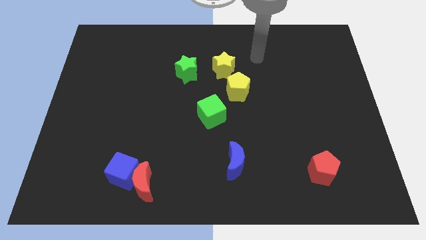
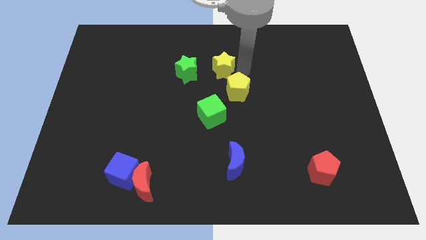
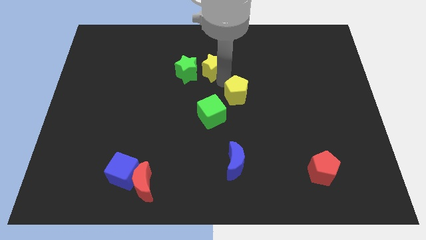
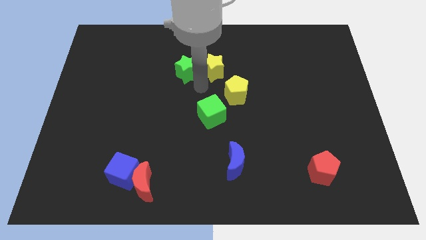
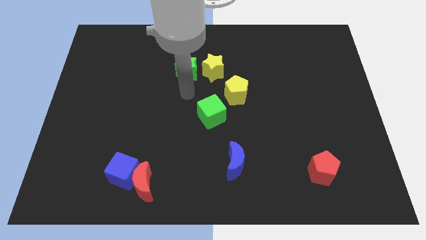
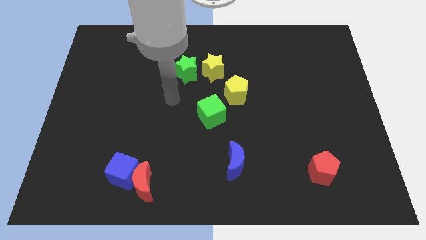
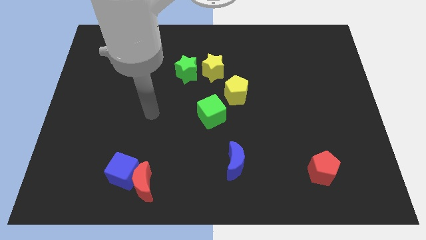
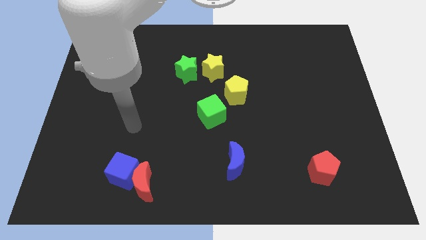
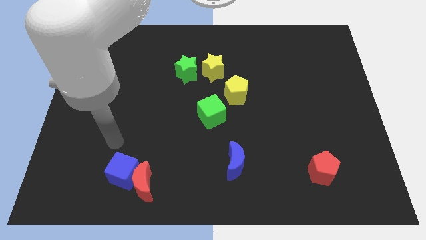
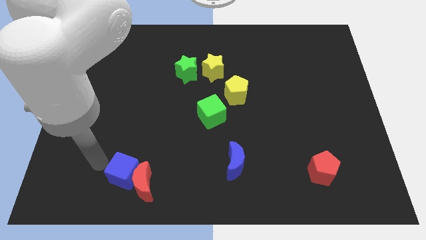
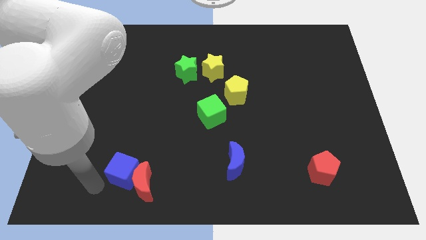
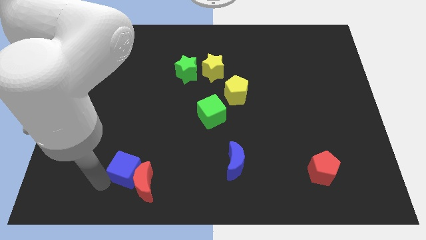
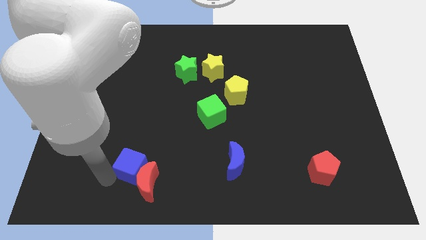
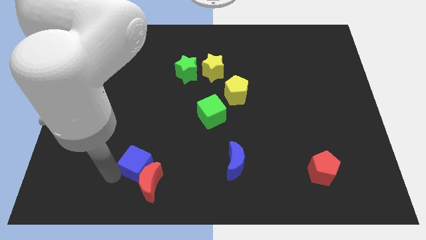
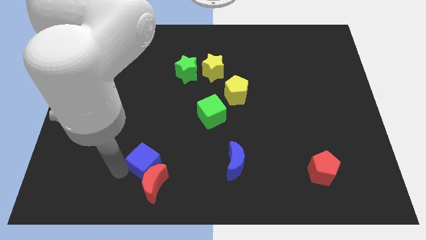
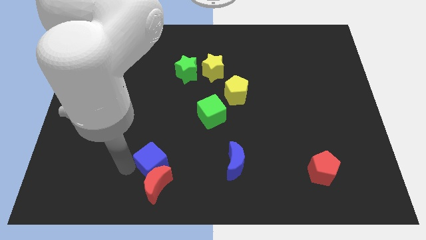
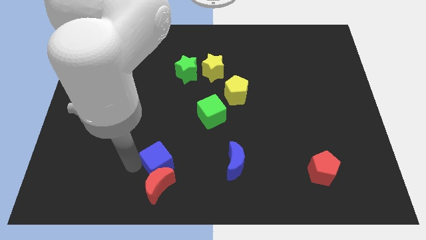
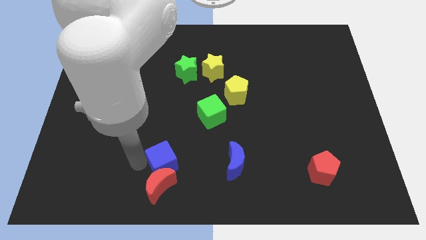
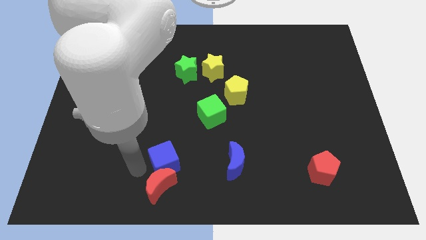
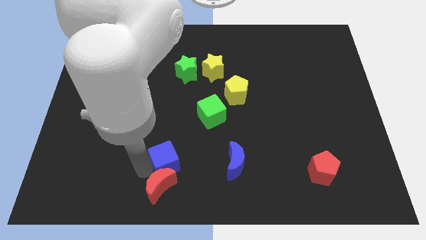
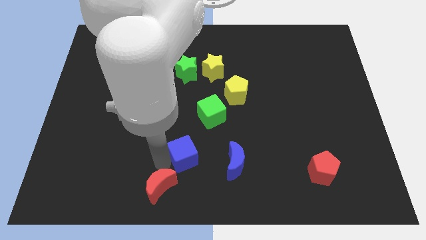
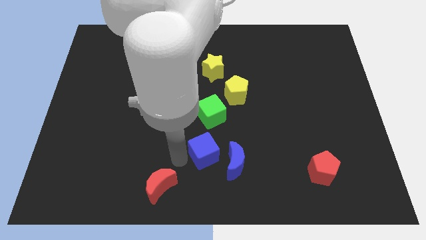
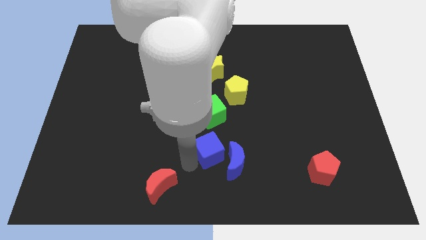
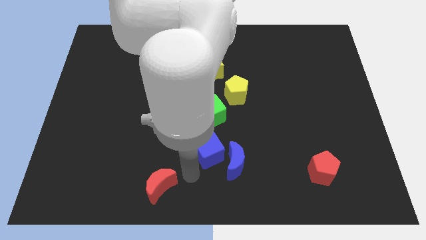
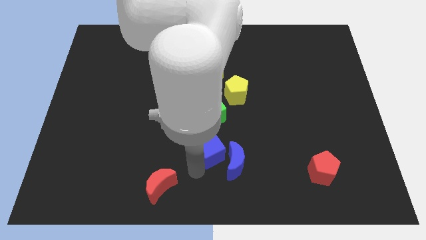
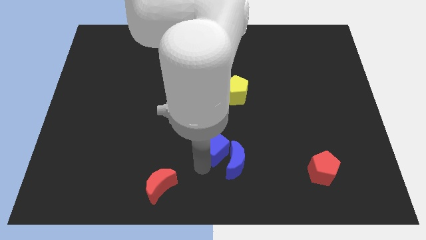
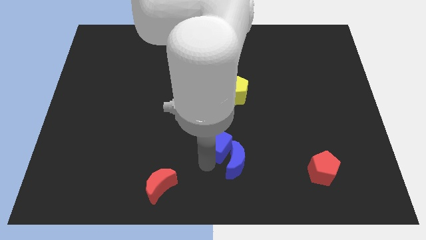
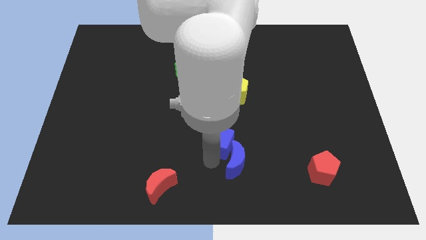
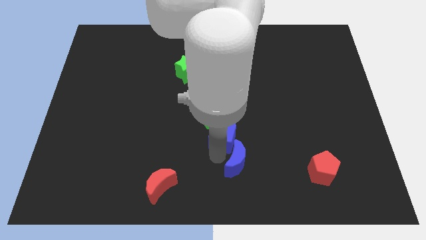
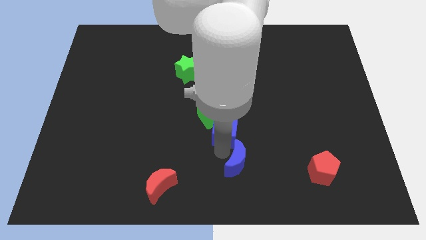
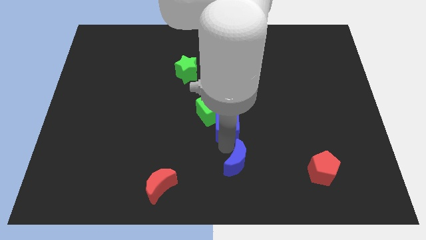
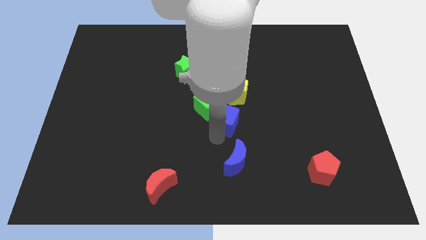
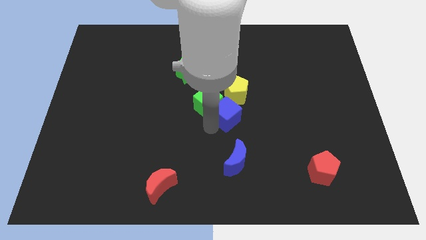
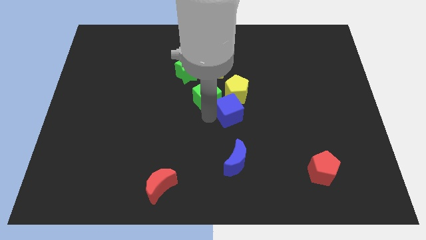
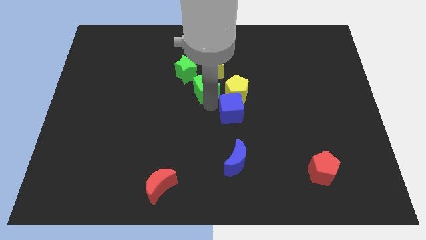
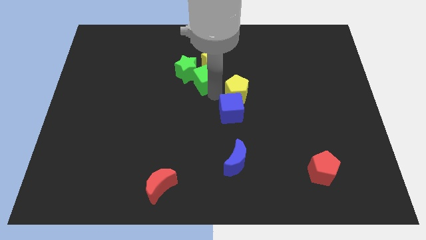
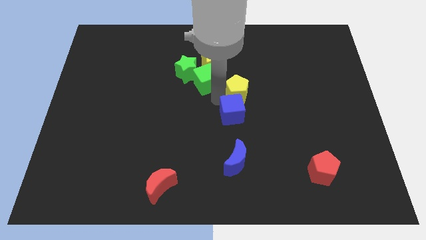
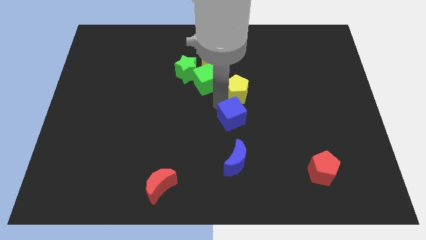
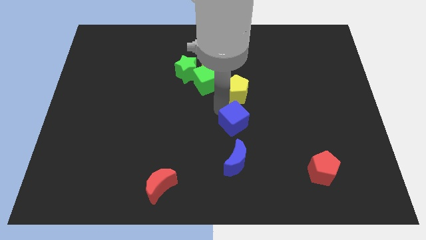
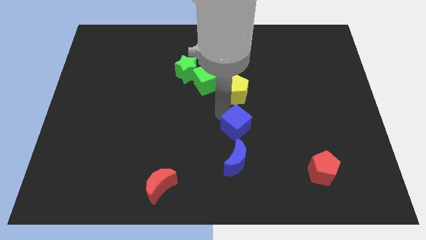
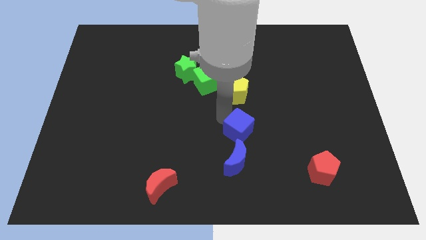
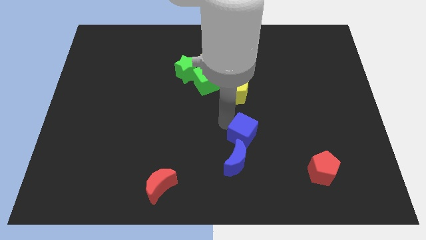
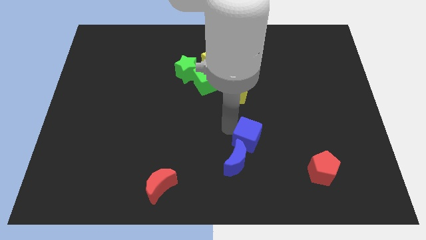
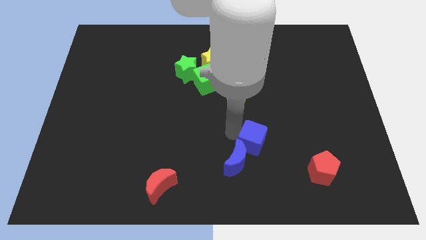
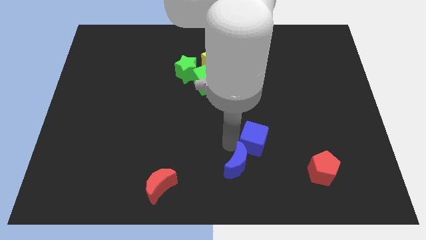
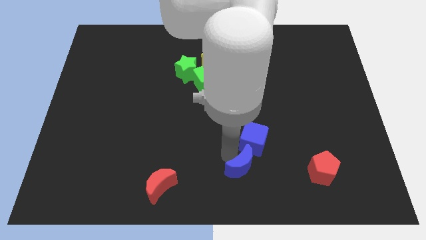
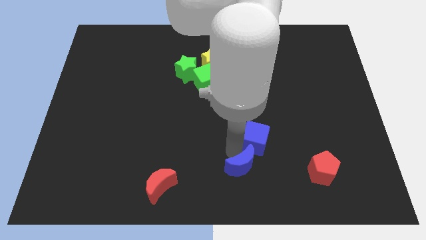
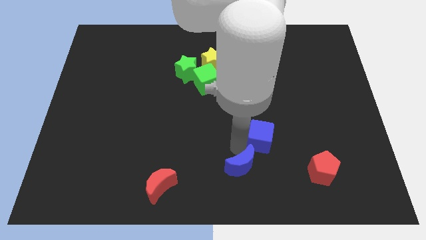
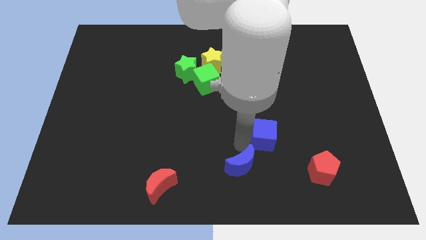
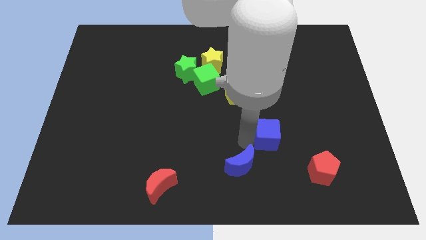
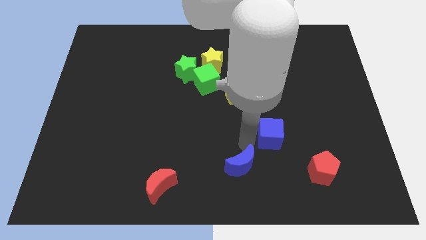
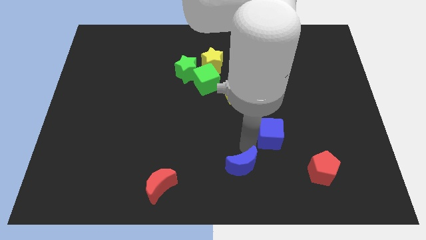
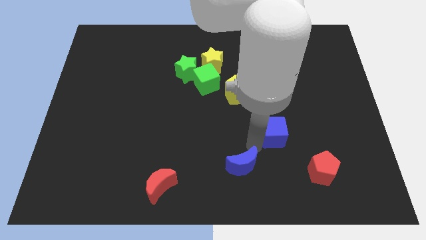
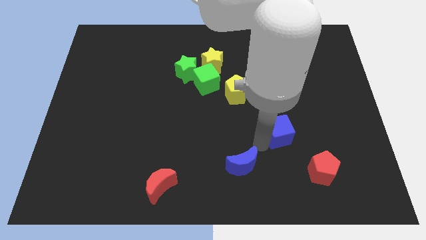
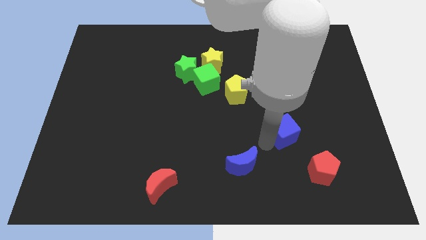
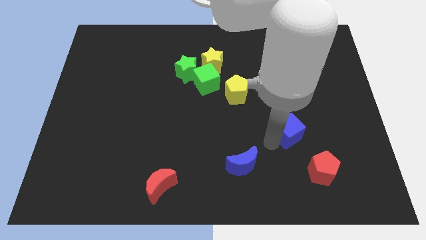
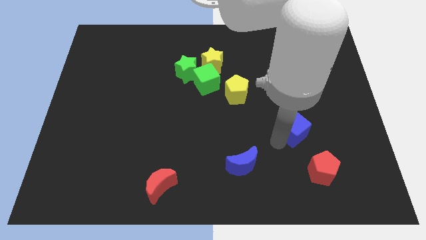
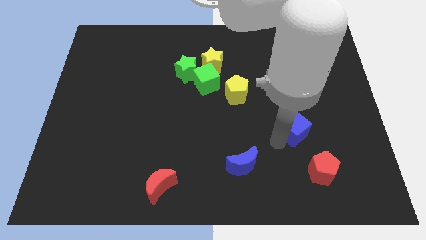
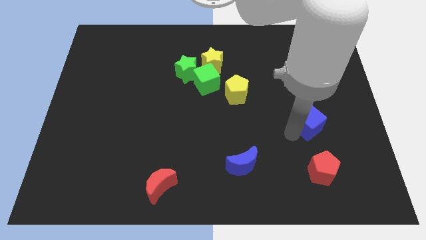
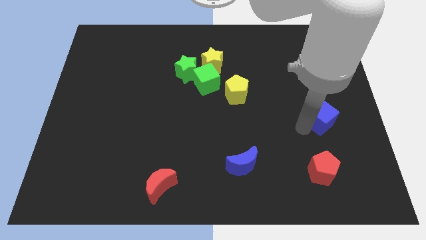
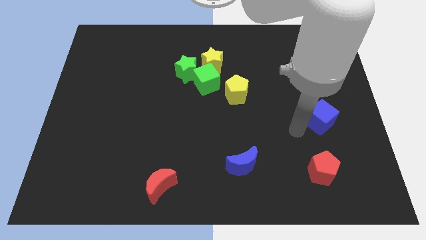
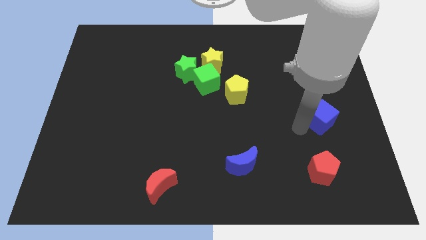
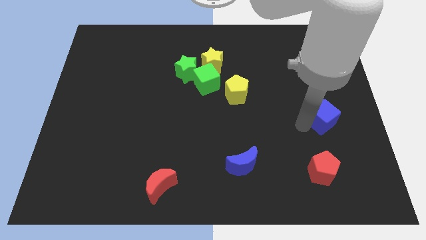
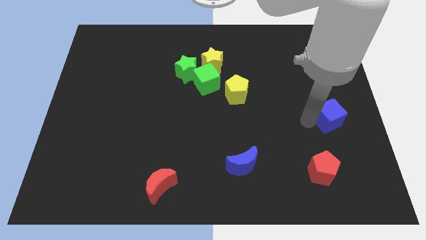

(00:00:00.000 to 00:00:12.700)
put the blue cube to the right side

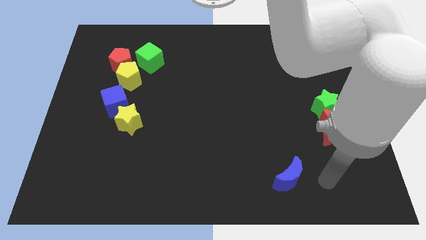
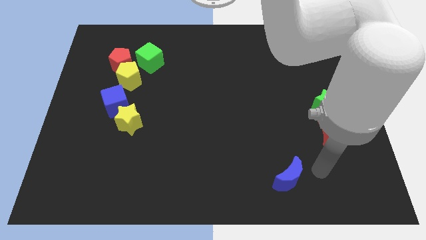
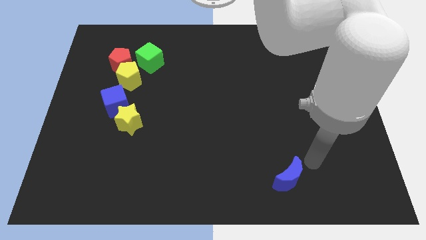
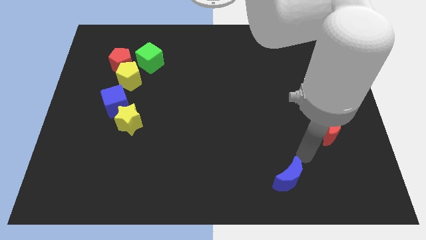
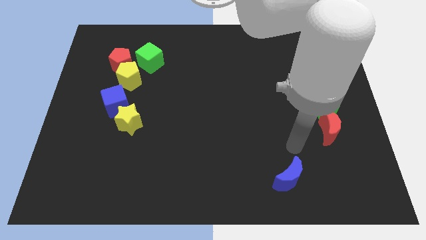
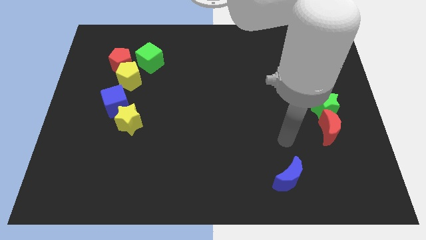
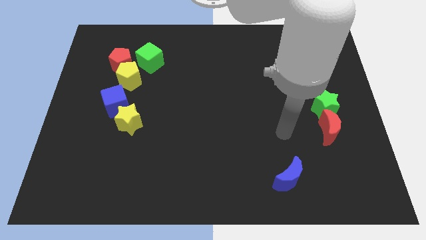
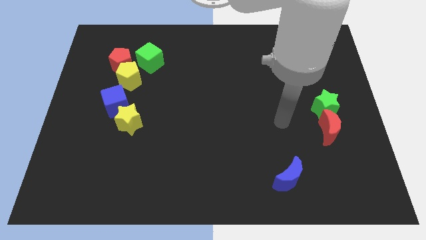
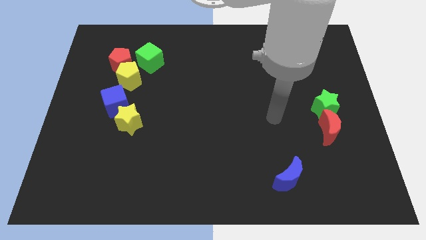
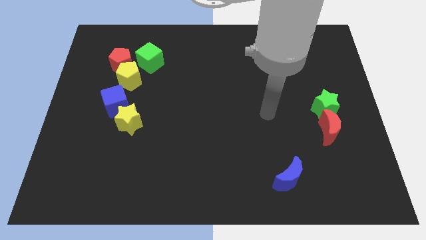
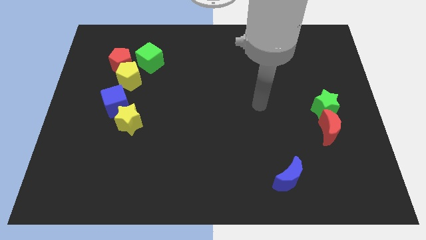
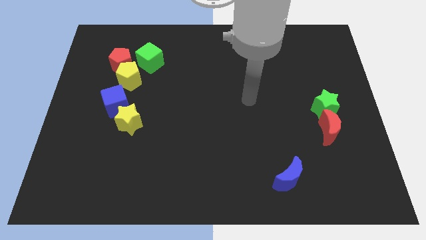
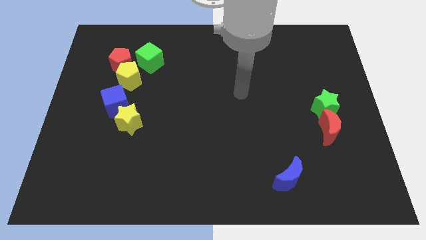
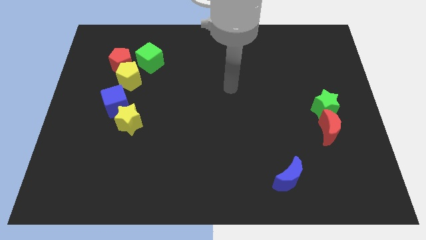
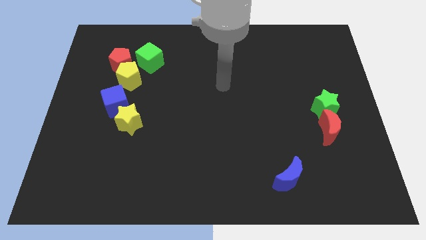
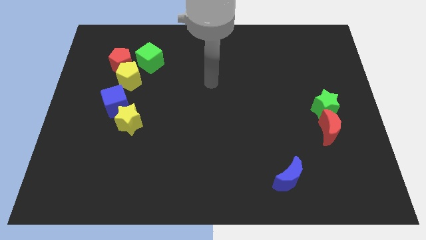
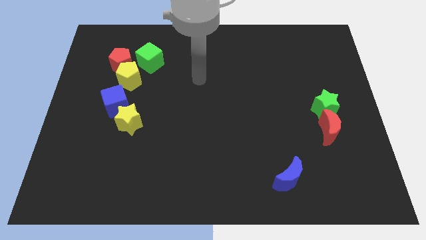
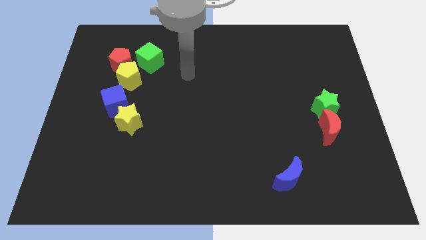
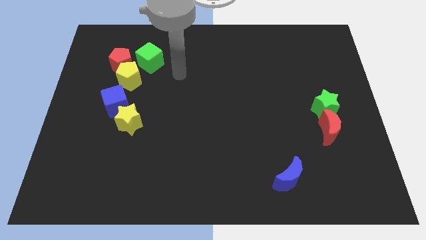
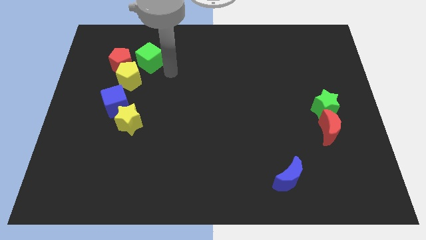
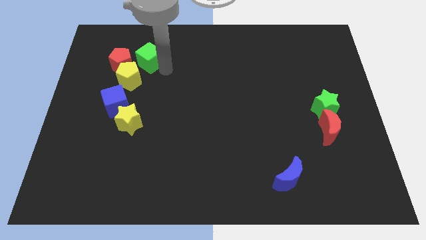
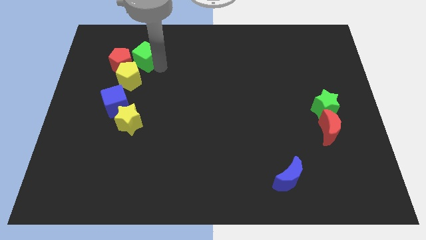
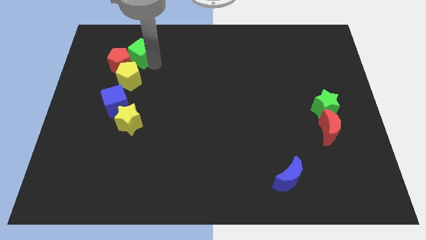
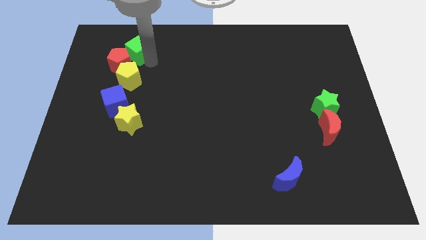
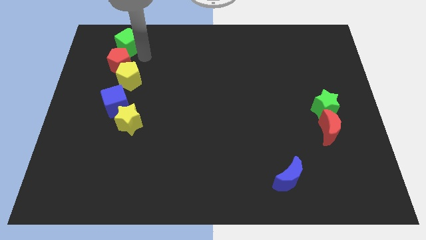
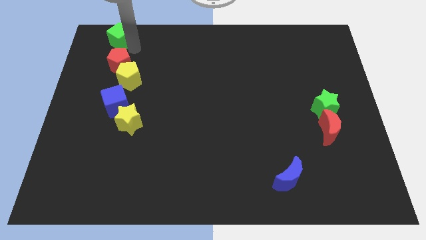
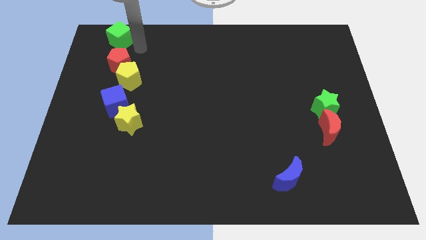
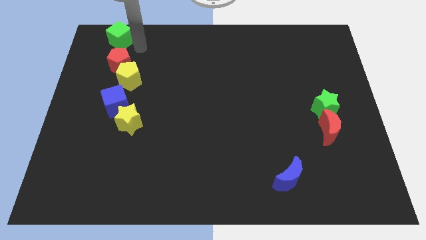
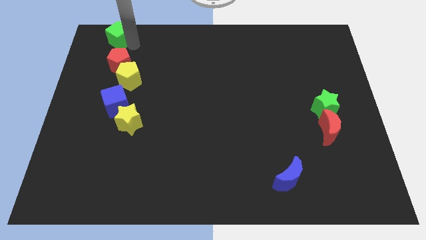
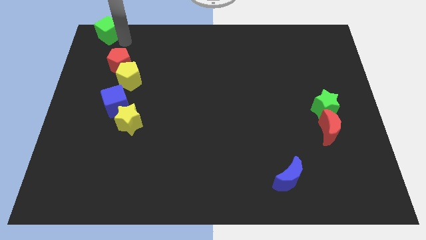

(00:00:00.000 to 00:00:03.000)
push the green cube to the top left corner
